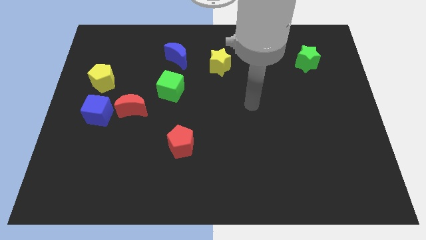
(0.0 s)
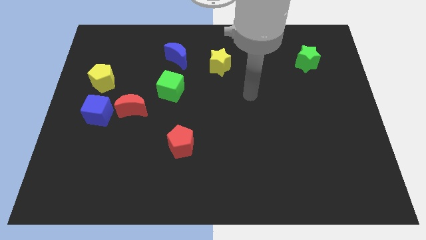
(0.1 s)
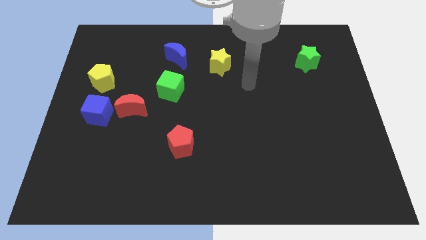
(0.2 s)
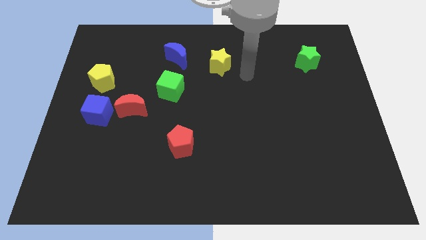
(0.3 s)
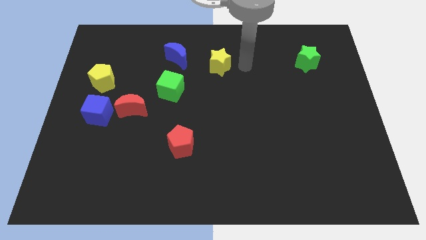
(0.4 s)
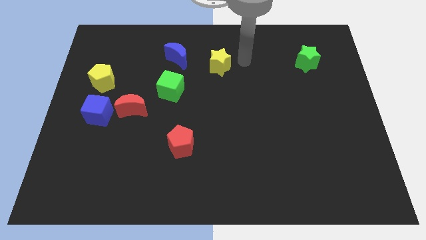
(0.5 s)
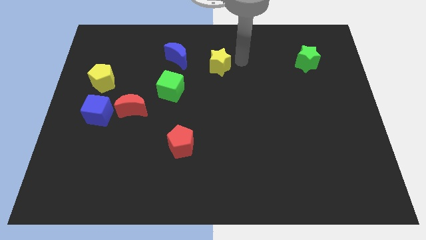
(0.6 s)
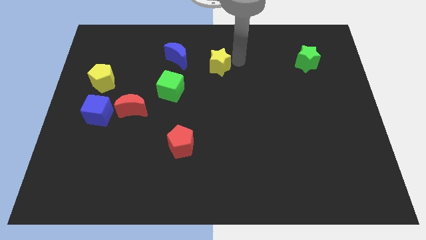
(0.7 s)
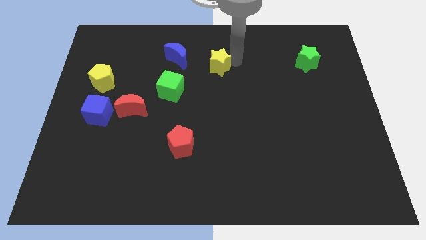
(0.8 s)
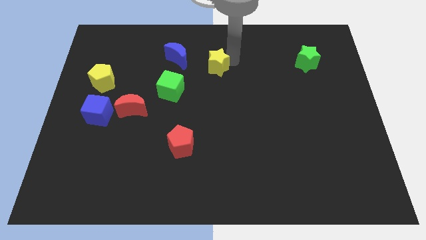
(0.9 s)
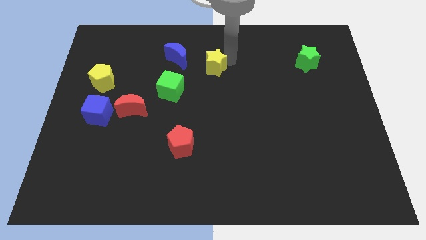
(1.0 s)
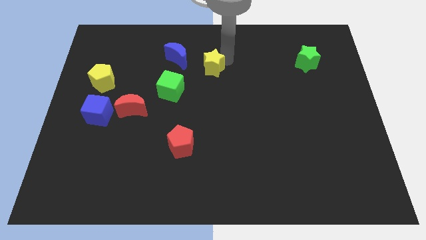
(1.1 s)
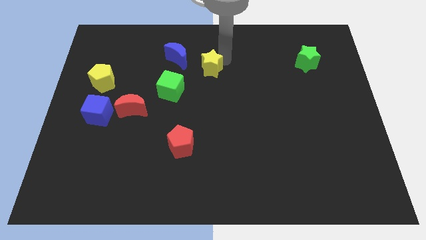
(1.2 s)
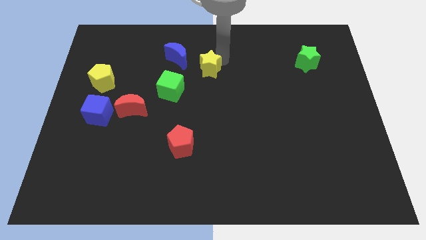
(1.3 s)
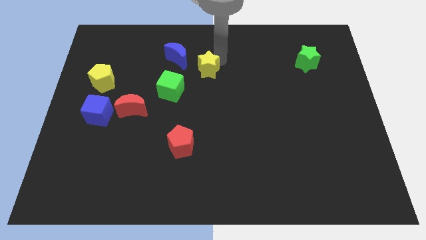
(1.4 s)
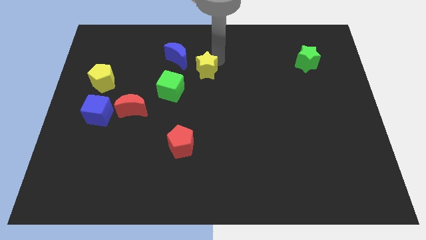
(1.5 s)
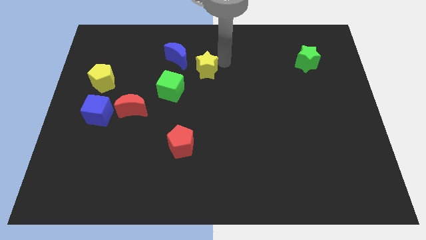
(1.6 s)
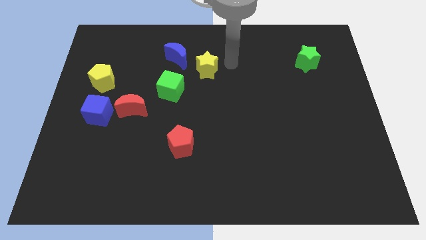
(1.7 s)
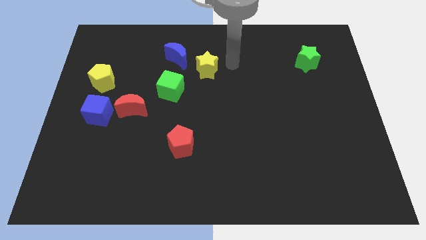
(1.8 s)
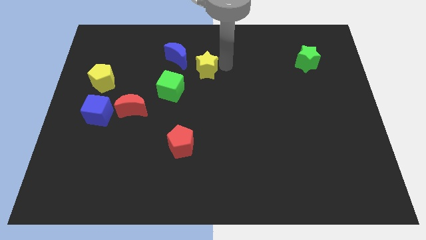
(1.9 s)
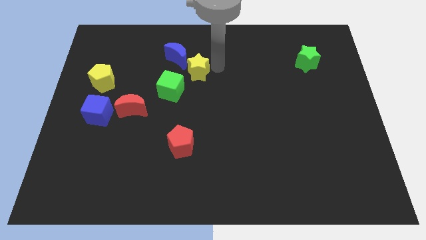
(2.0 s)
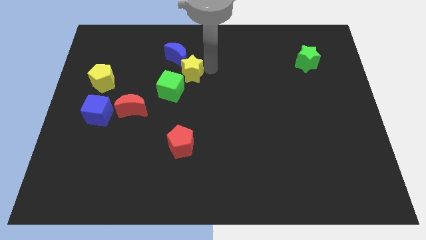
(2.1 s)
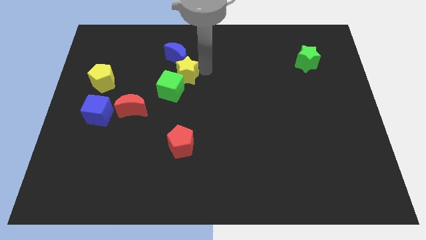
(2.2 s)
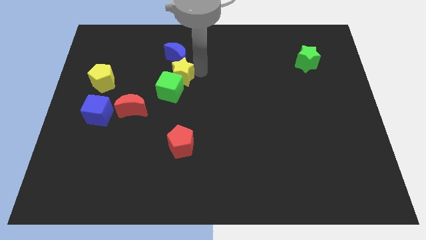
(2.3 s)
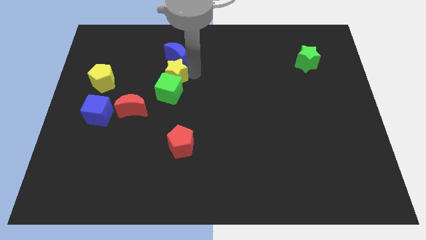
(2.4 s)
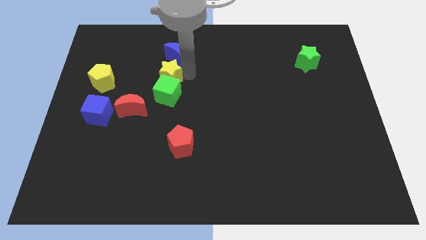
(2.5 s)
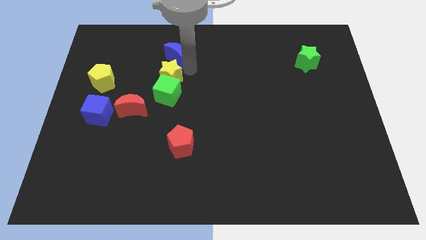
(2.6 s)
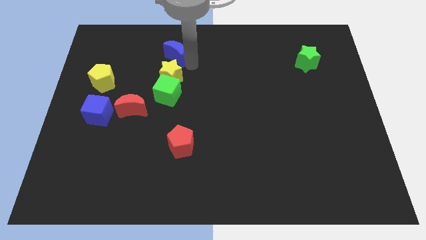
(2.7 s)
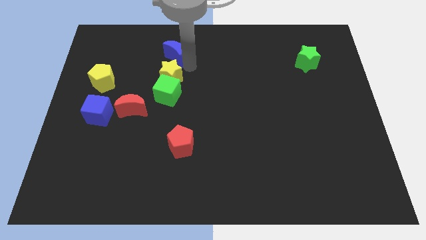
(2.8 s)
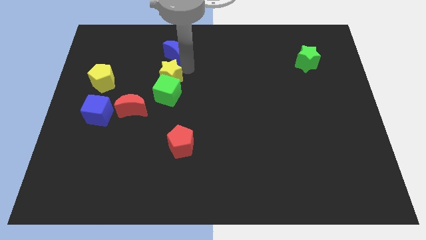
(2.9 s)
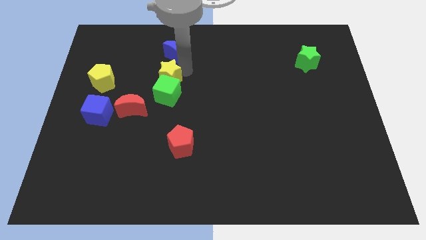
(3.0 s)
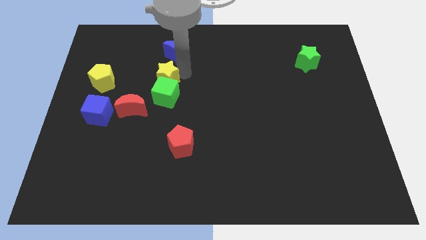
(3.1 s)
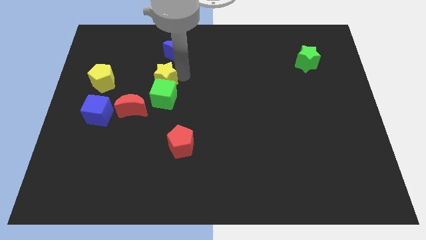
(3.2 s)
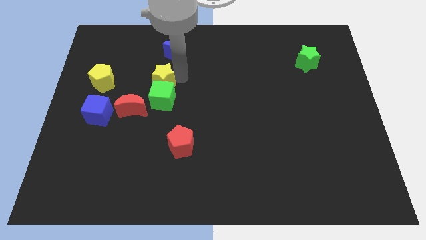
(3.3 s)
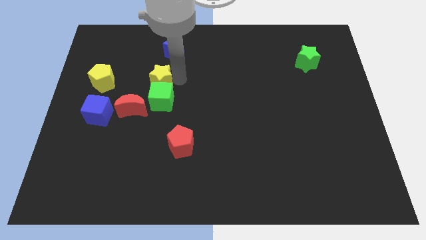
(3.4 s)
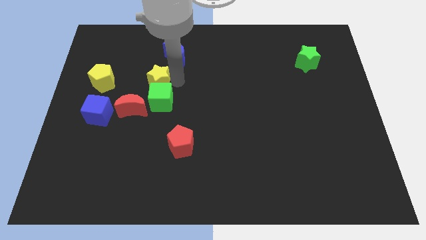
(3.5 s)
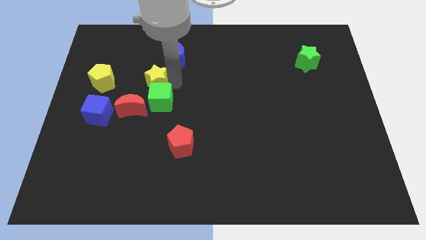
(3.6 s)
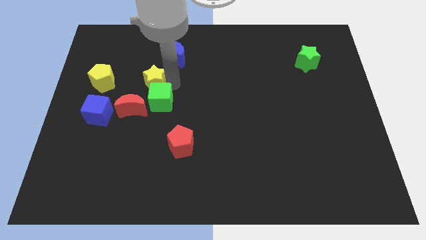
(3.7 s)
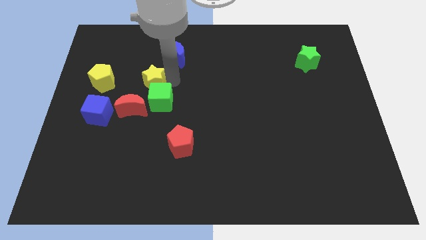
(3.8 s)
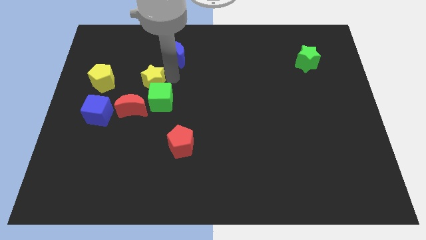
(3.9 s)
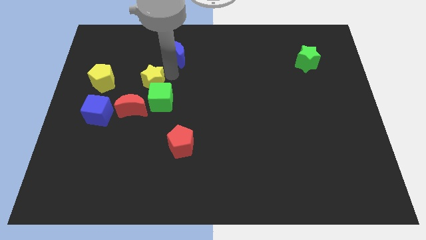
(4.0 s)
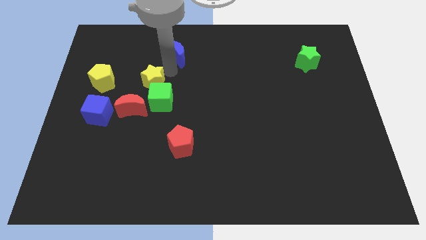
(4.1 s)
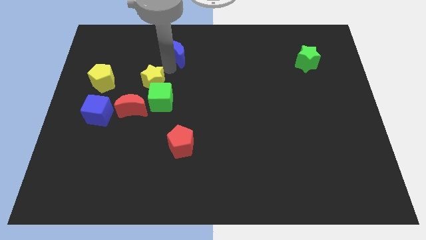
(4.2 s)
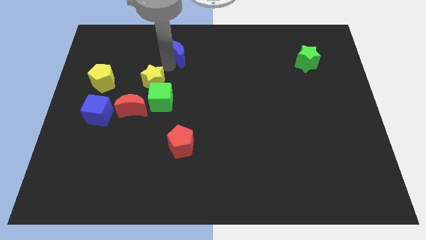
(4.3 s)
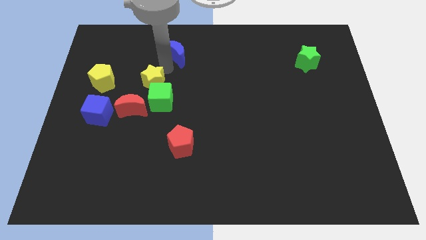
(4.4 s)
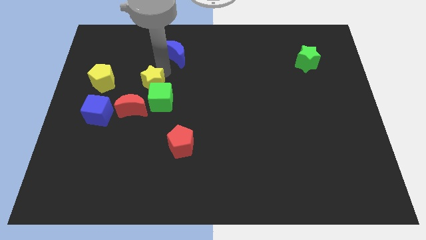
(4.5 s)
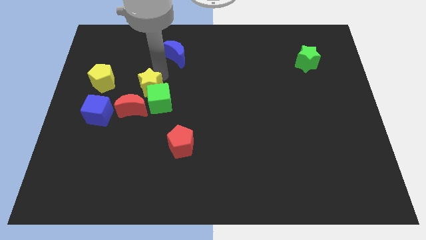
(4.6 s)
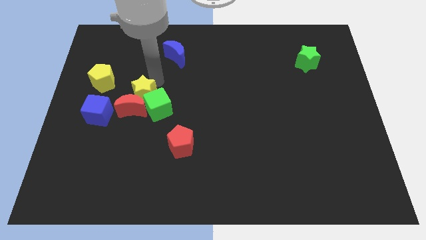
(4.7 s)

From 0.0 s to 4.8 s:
put the yellow star close to the red moon

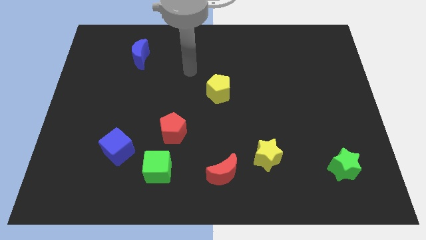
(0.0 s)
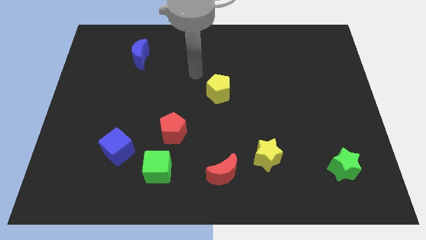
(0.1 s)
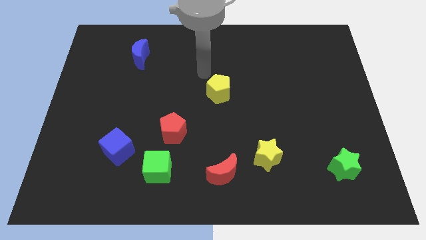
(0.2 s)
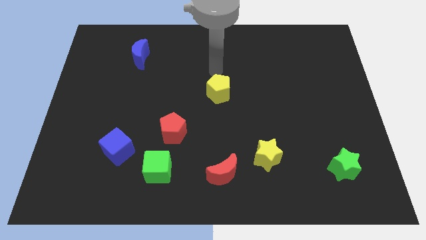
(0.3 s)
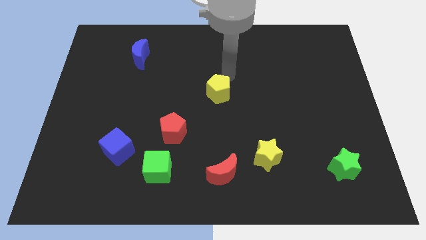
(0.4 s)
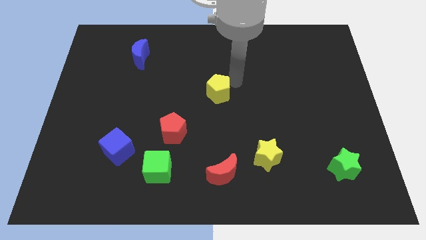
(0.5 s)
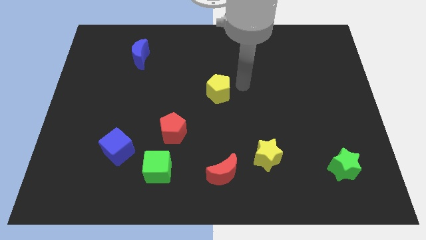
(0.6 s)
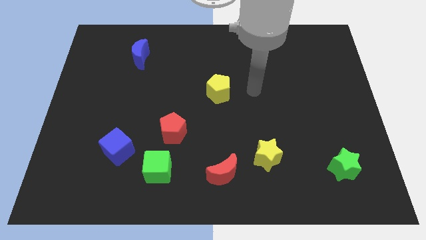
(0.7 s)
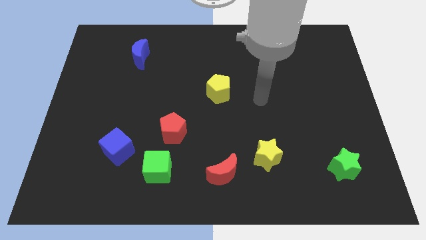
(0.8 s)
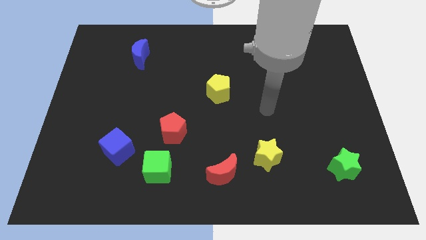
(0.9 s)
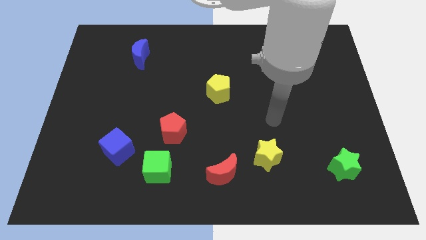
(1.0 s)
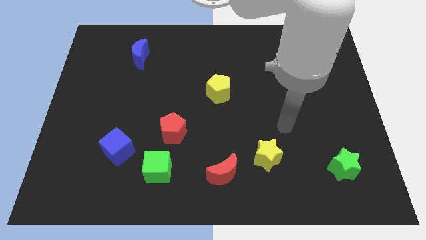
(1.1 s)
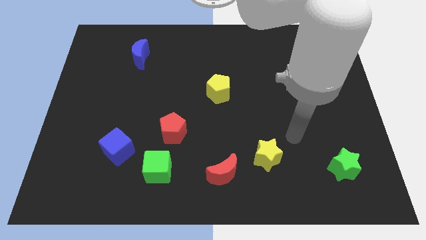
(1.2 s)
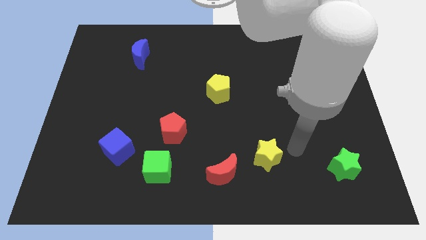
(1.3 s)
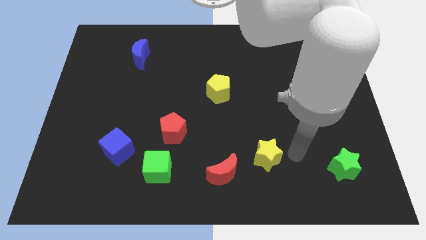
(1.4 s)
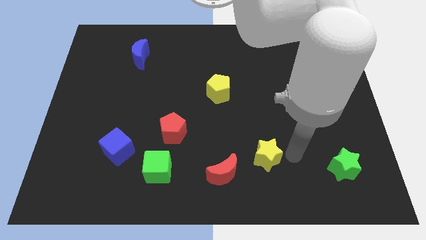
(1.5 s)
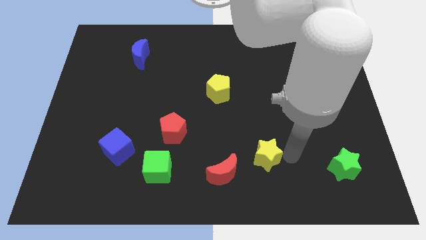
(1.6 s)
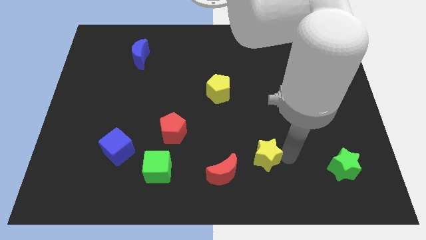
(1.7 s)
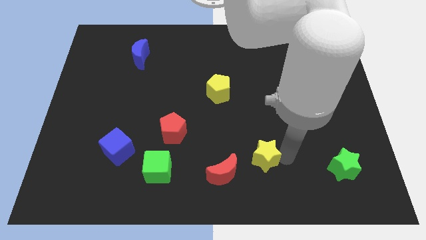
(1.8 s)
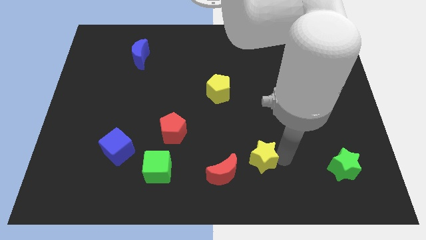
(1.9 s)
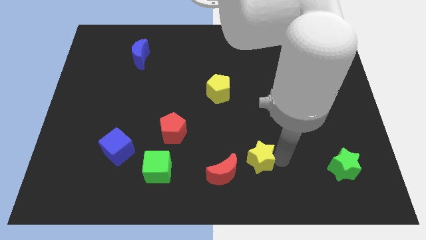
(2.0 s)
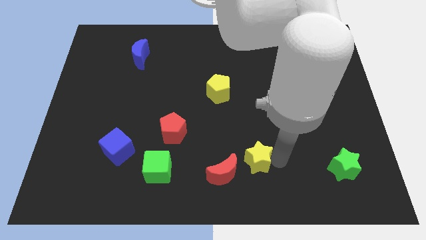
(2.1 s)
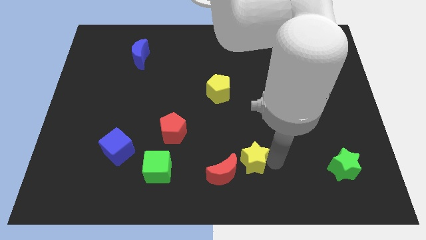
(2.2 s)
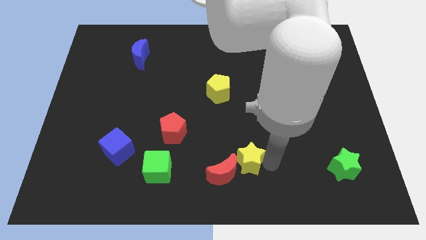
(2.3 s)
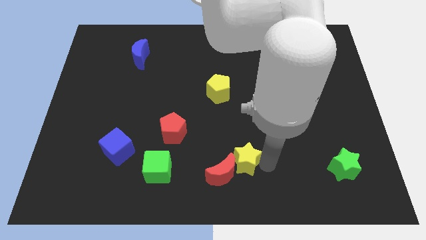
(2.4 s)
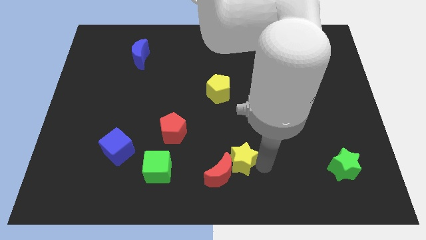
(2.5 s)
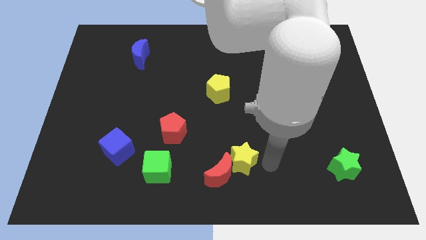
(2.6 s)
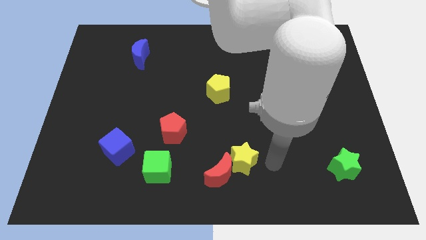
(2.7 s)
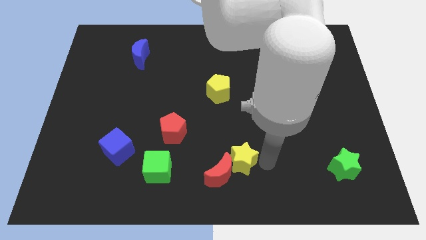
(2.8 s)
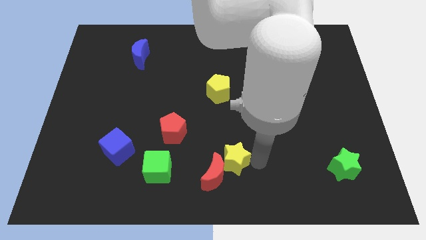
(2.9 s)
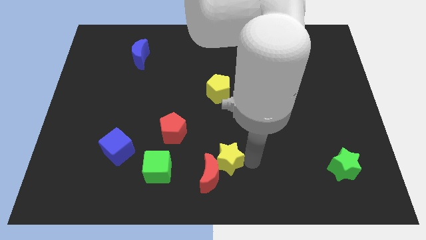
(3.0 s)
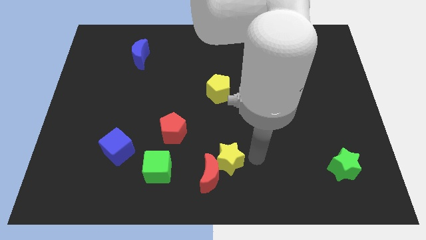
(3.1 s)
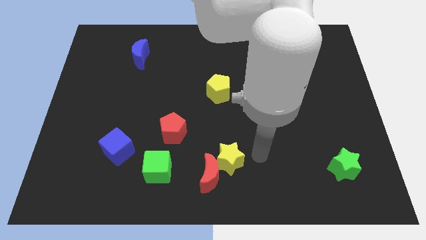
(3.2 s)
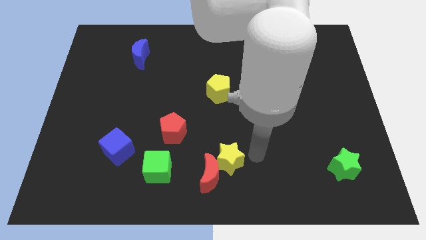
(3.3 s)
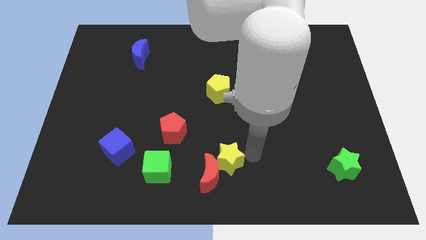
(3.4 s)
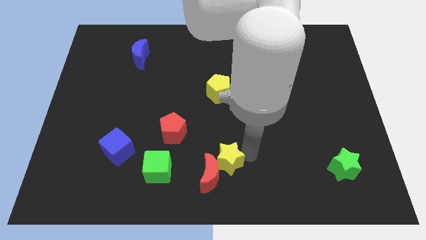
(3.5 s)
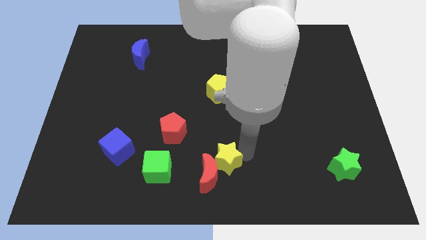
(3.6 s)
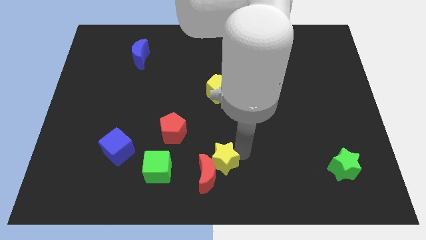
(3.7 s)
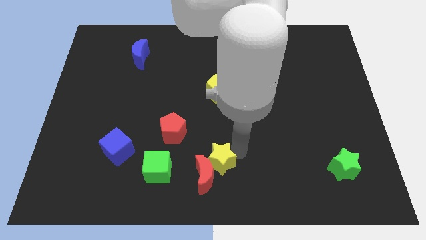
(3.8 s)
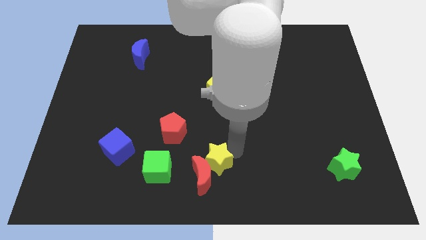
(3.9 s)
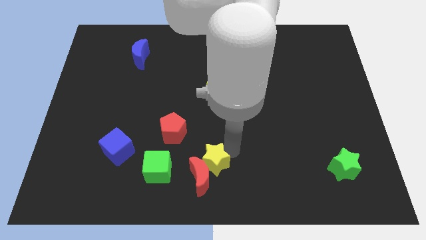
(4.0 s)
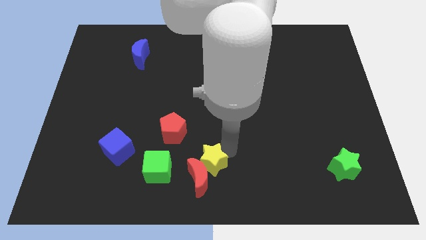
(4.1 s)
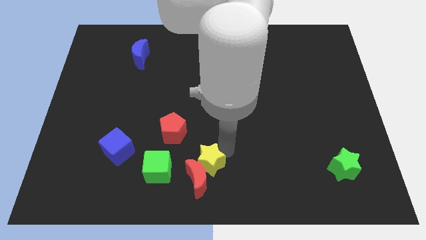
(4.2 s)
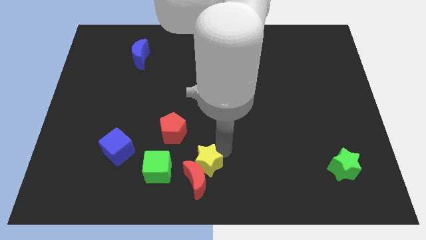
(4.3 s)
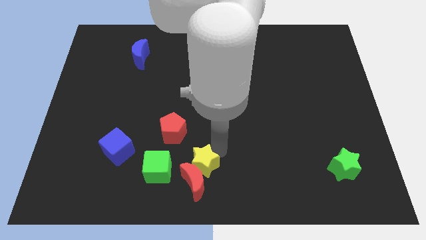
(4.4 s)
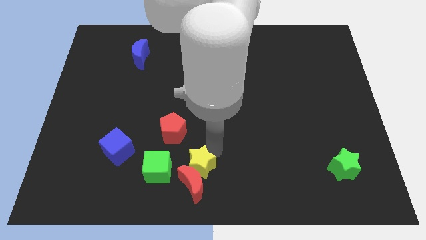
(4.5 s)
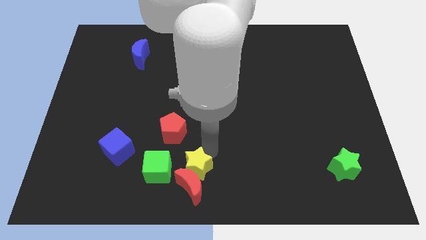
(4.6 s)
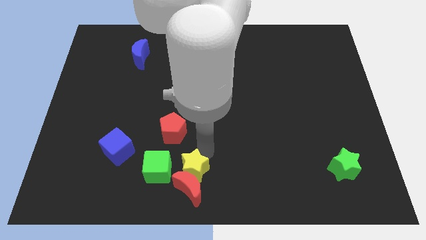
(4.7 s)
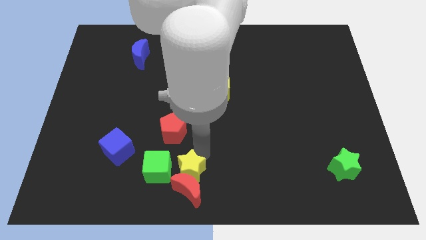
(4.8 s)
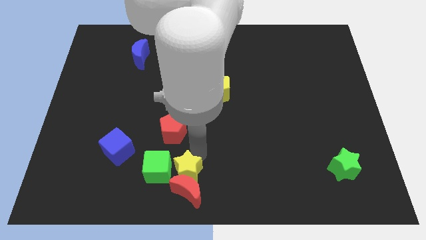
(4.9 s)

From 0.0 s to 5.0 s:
move the yellow star to the green cube
